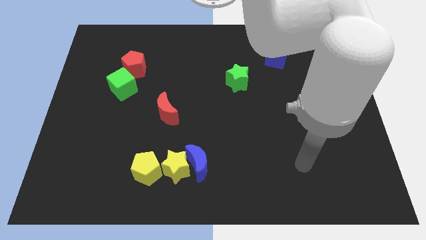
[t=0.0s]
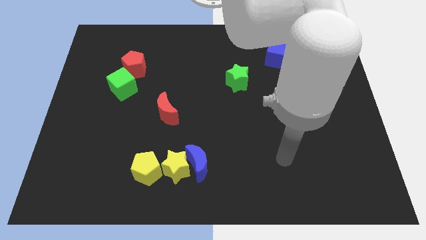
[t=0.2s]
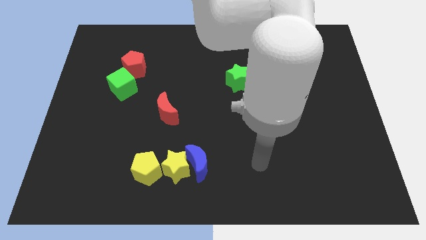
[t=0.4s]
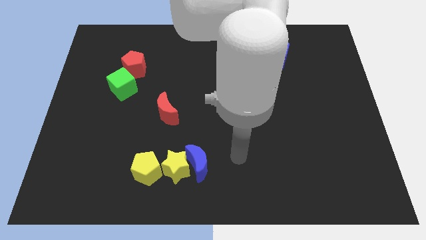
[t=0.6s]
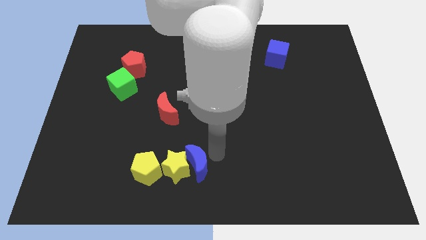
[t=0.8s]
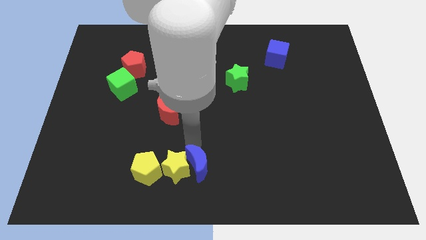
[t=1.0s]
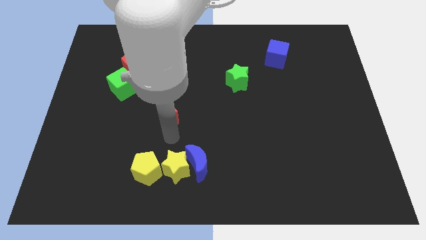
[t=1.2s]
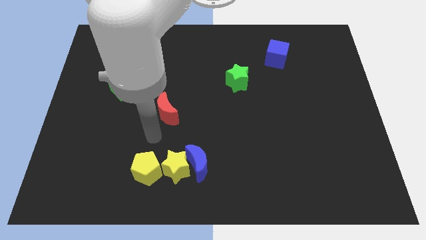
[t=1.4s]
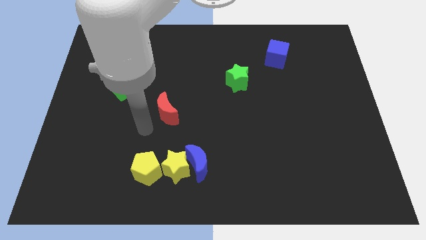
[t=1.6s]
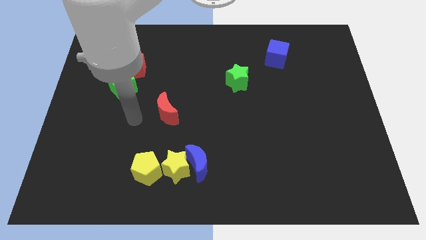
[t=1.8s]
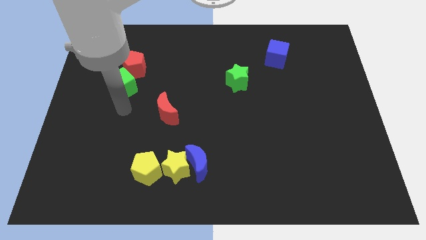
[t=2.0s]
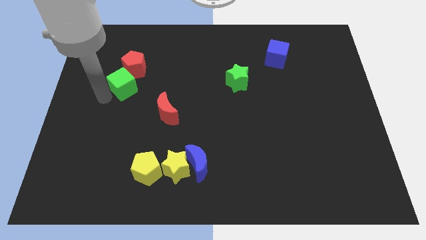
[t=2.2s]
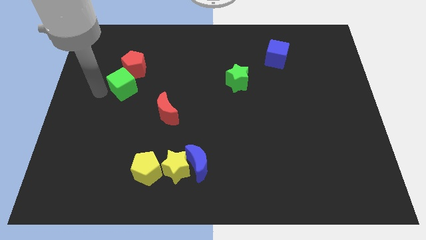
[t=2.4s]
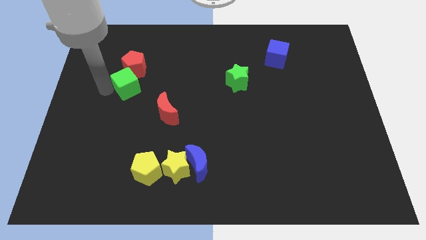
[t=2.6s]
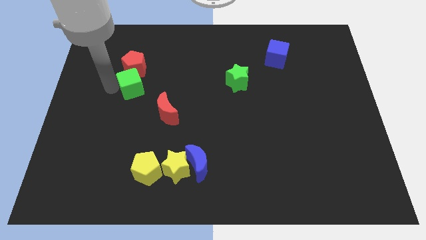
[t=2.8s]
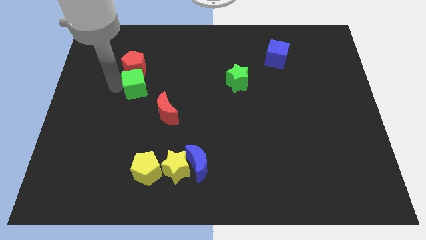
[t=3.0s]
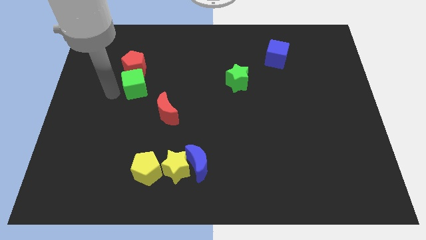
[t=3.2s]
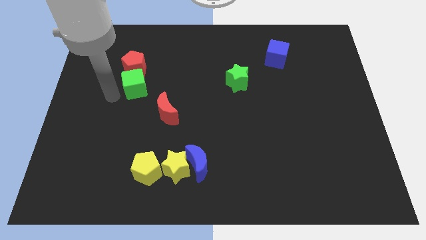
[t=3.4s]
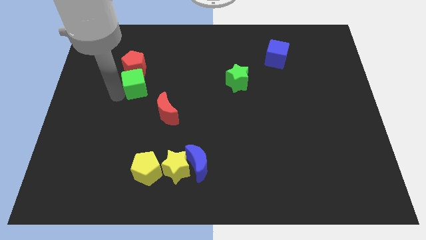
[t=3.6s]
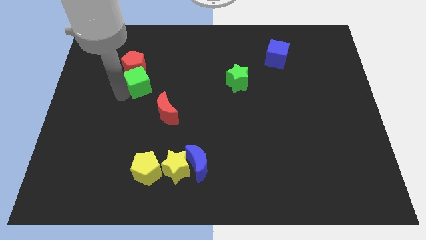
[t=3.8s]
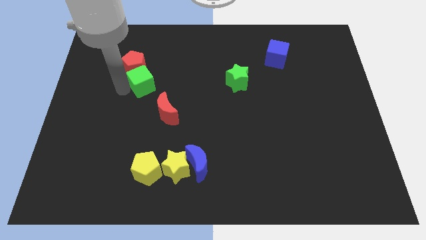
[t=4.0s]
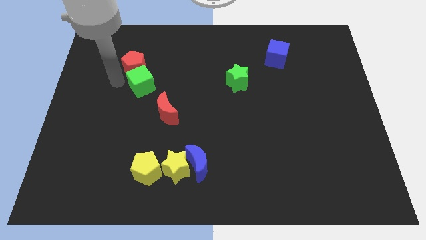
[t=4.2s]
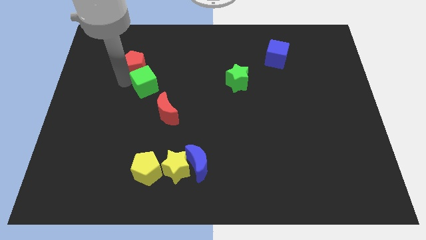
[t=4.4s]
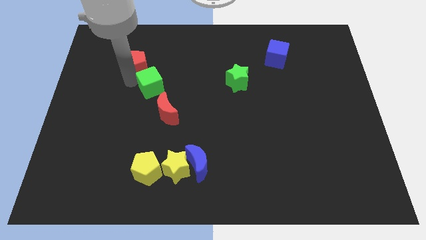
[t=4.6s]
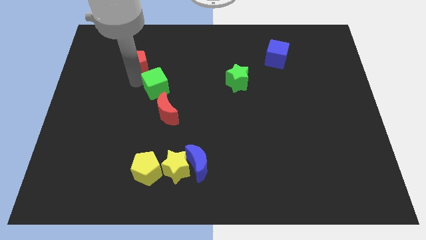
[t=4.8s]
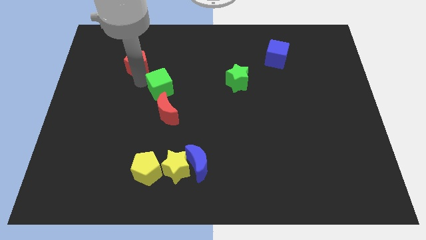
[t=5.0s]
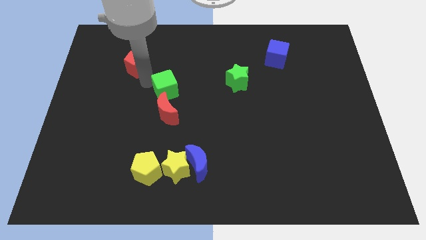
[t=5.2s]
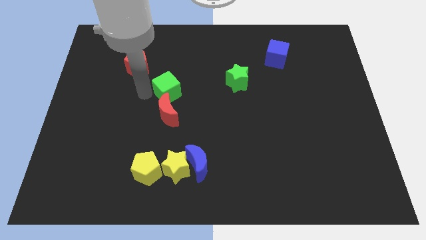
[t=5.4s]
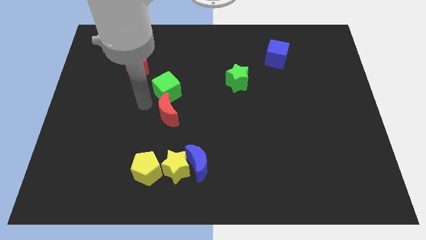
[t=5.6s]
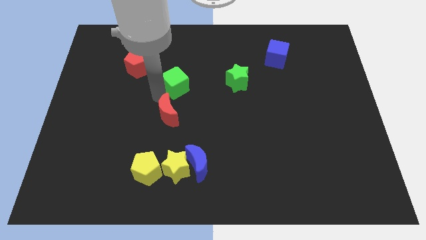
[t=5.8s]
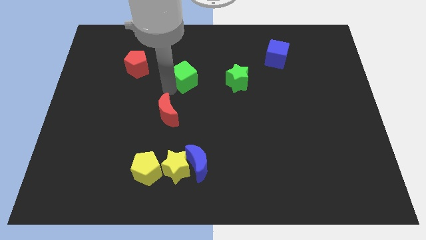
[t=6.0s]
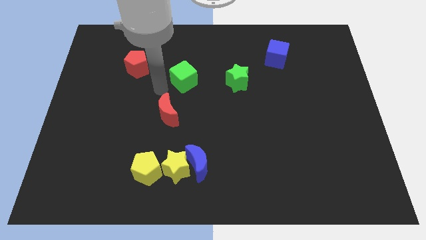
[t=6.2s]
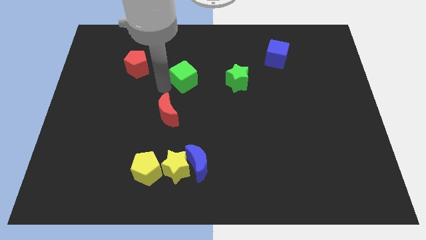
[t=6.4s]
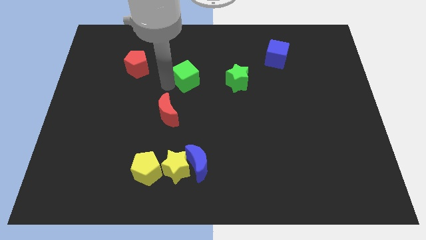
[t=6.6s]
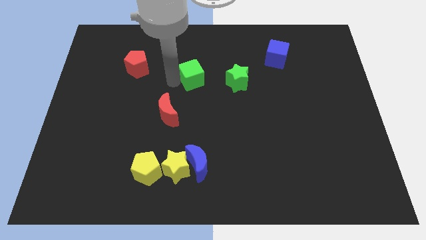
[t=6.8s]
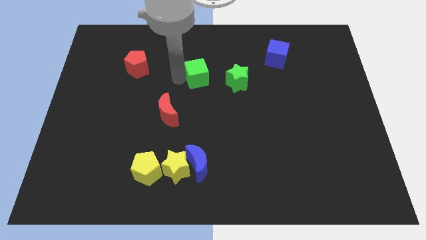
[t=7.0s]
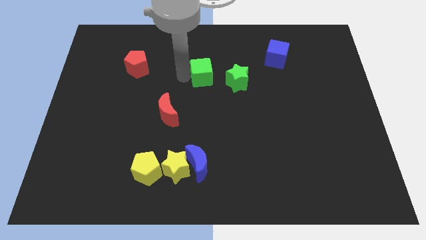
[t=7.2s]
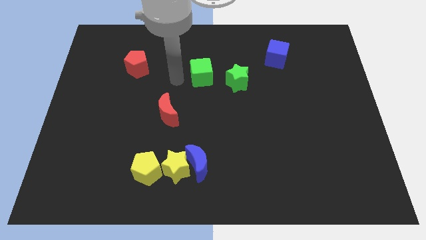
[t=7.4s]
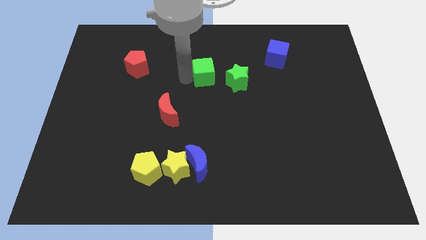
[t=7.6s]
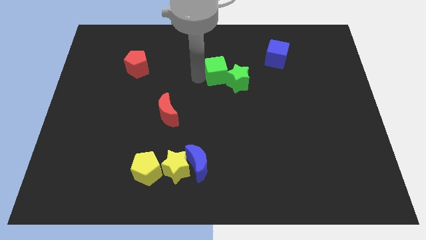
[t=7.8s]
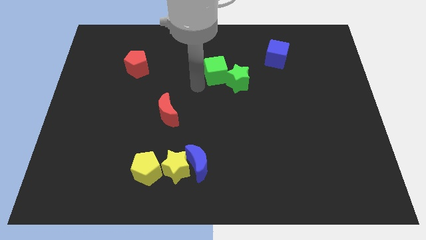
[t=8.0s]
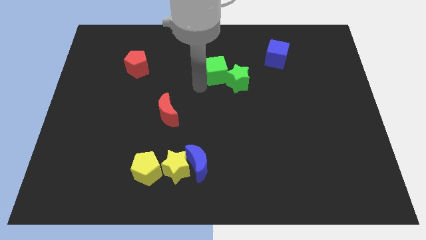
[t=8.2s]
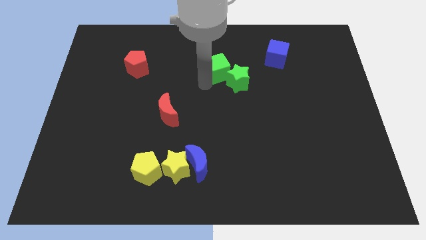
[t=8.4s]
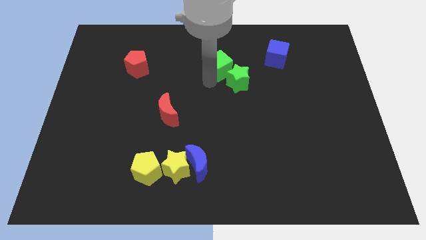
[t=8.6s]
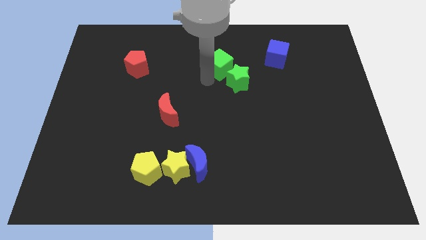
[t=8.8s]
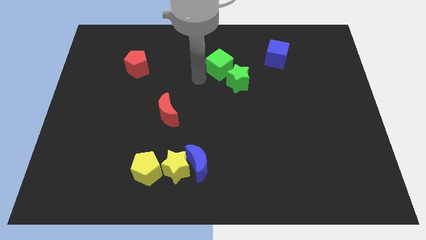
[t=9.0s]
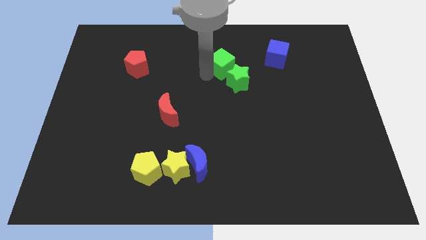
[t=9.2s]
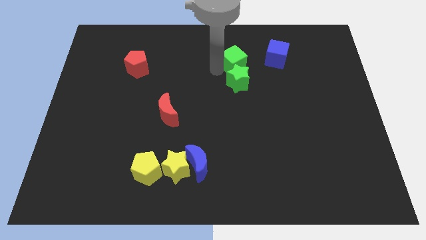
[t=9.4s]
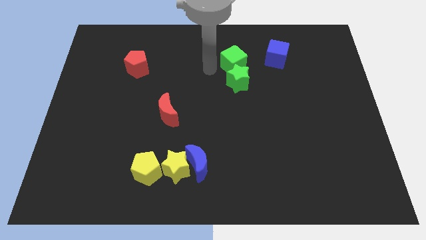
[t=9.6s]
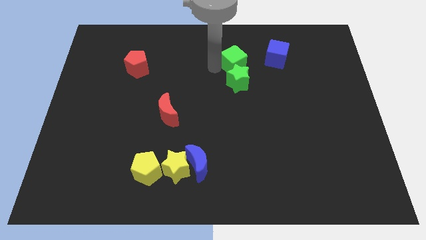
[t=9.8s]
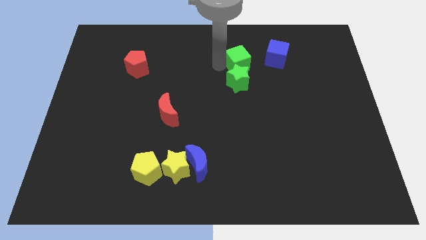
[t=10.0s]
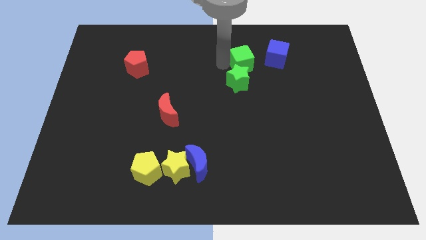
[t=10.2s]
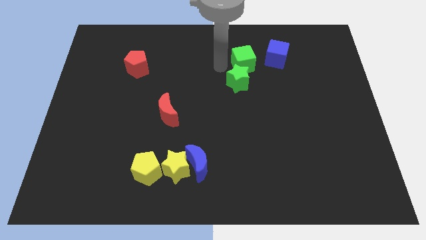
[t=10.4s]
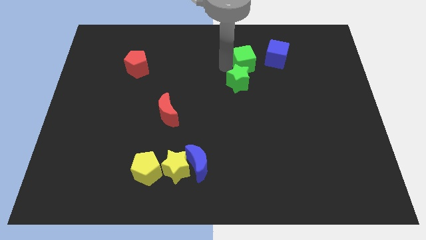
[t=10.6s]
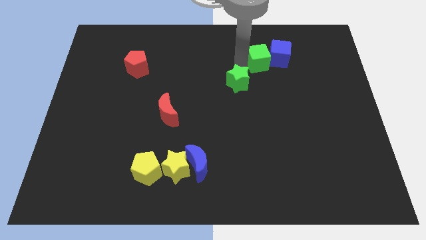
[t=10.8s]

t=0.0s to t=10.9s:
move the green cube to the blue cube

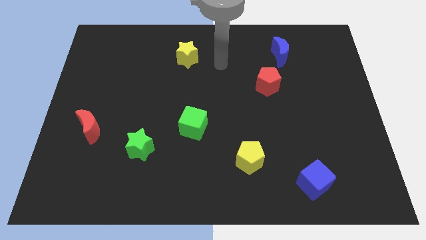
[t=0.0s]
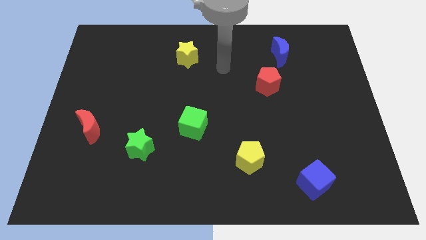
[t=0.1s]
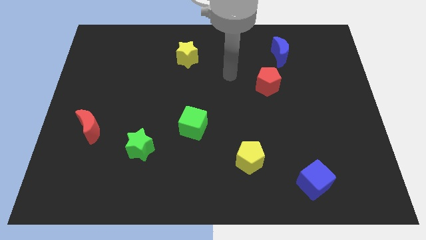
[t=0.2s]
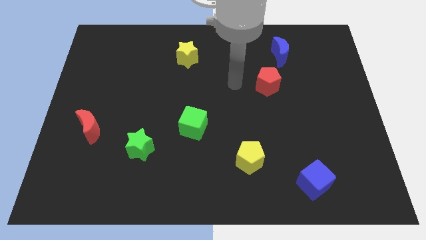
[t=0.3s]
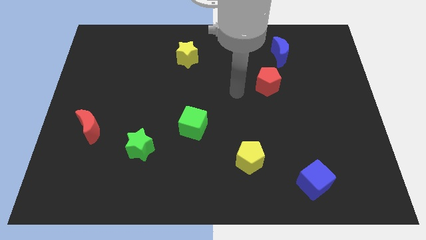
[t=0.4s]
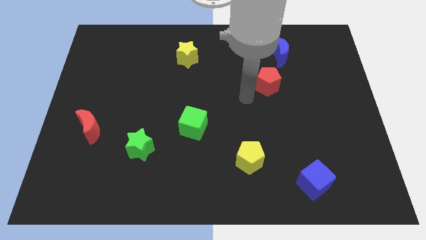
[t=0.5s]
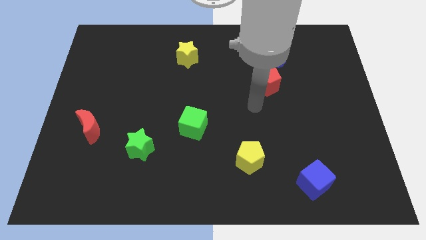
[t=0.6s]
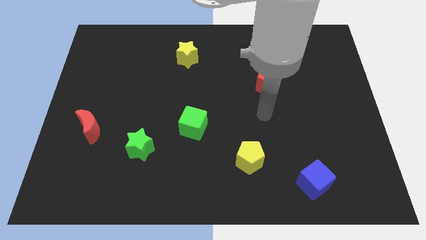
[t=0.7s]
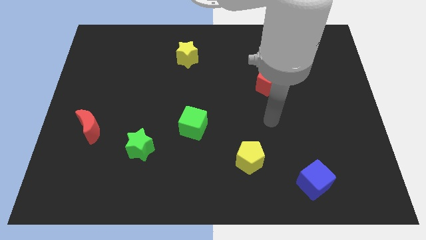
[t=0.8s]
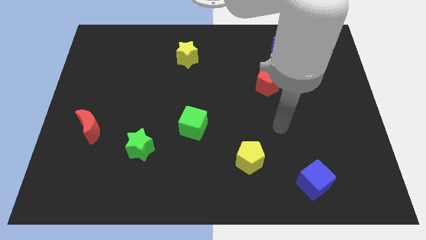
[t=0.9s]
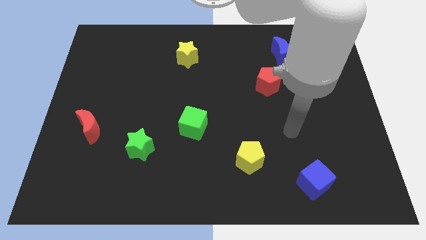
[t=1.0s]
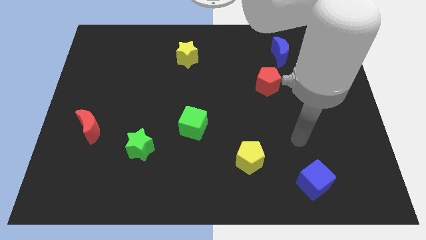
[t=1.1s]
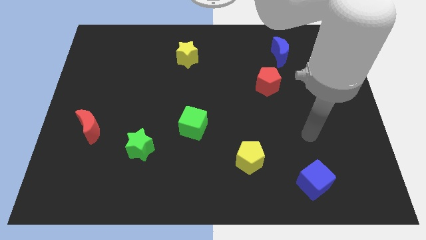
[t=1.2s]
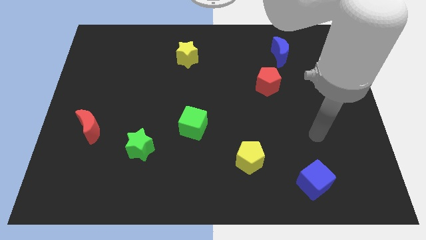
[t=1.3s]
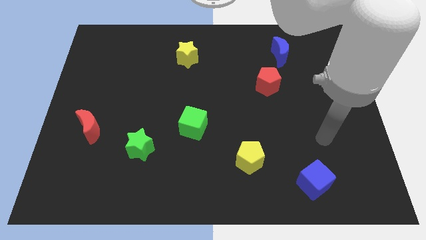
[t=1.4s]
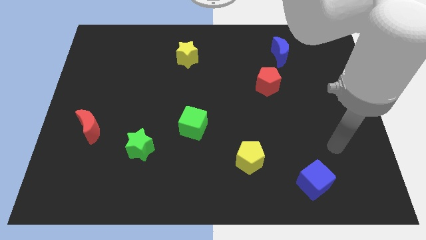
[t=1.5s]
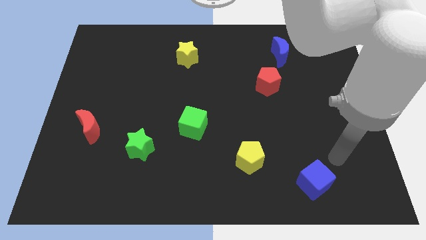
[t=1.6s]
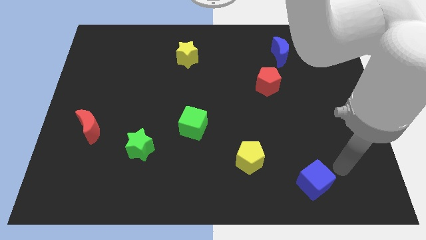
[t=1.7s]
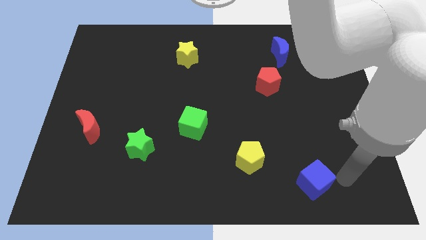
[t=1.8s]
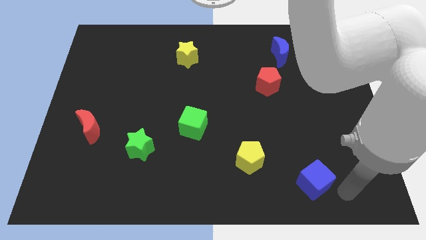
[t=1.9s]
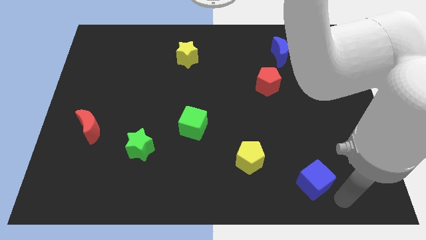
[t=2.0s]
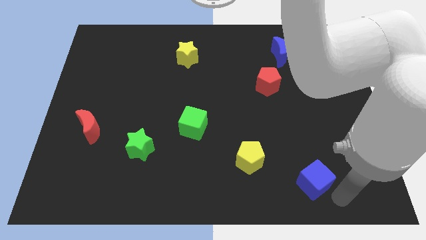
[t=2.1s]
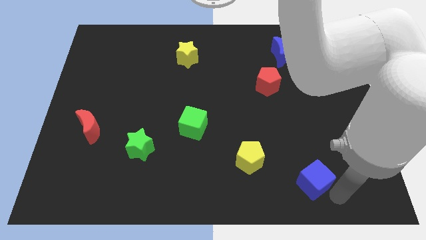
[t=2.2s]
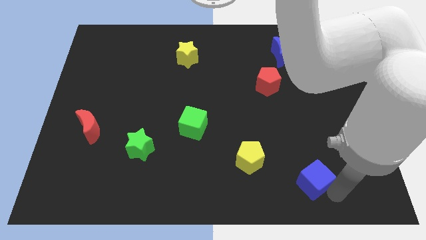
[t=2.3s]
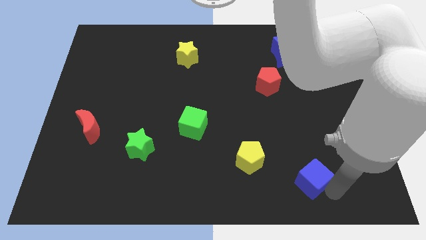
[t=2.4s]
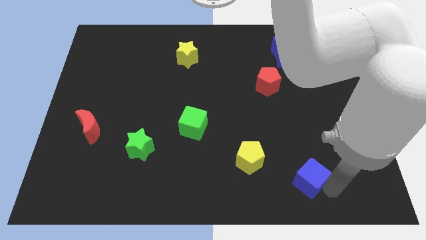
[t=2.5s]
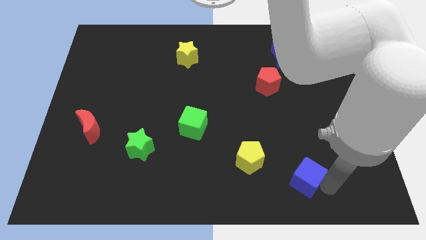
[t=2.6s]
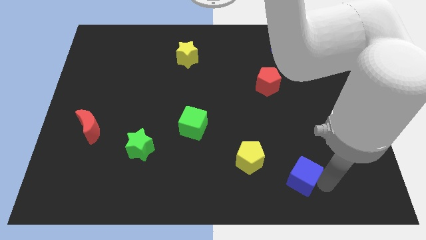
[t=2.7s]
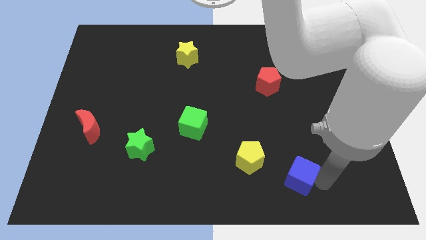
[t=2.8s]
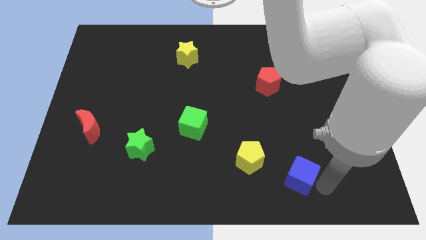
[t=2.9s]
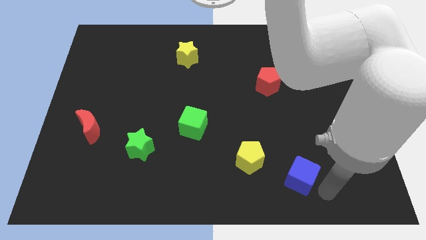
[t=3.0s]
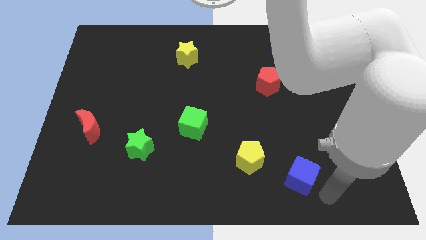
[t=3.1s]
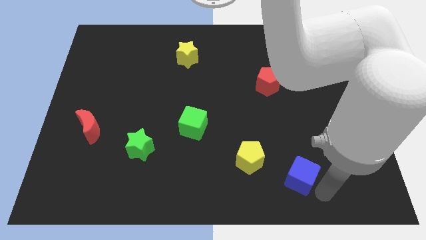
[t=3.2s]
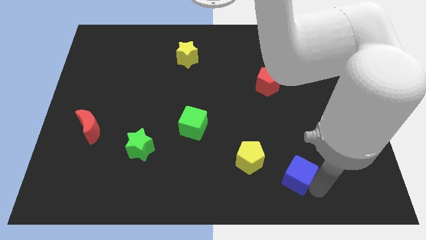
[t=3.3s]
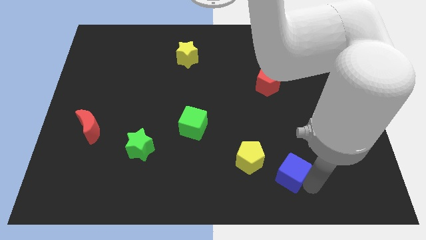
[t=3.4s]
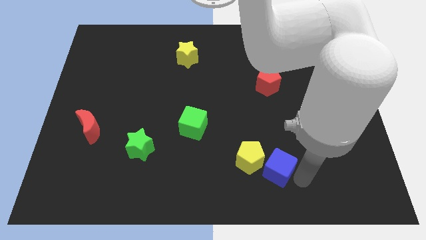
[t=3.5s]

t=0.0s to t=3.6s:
push the blue cube towards the yellow pentagon
